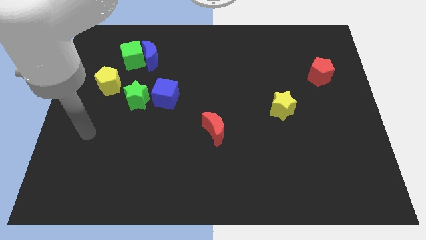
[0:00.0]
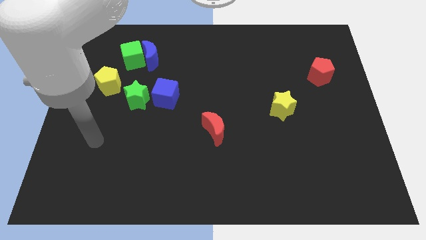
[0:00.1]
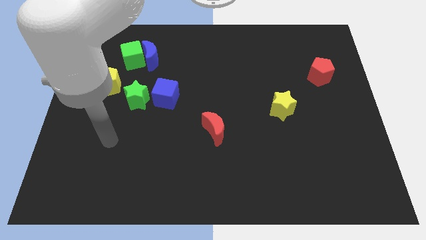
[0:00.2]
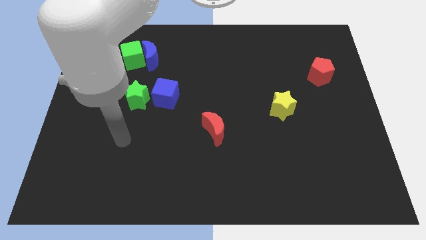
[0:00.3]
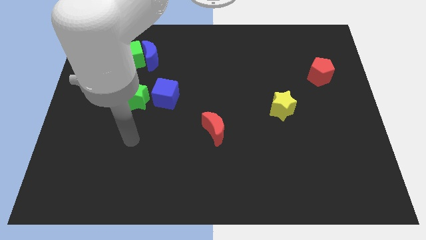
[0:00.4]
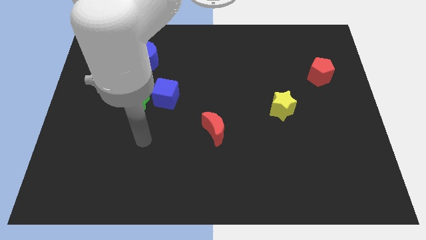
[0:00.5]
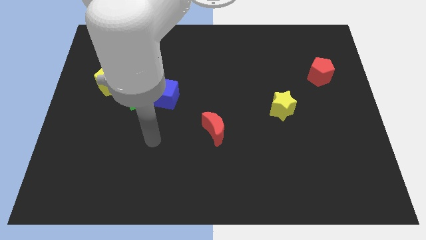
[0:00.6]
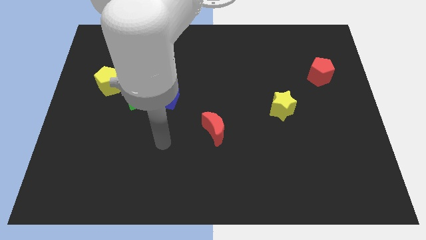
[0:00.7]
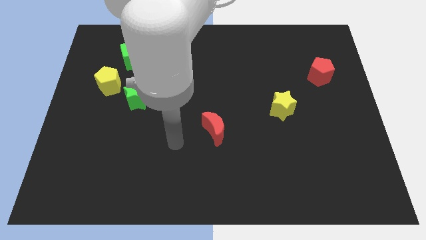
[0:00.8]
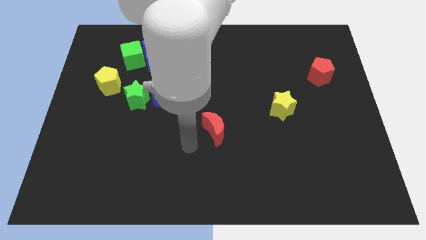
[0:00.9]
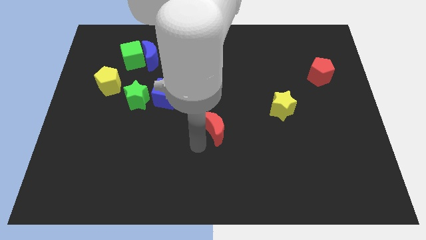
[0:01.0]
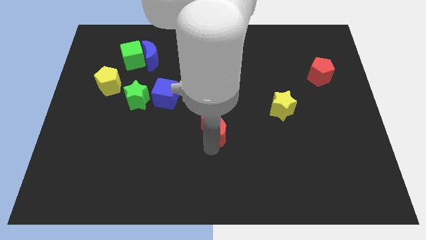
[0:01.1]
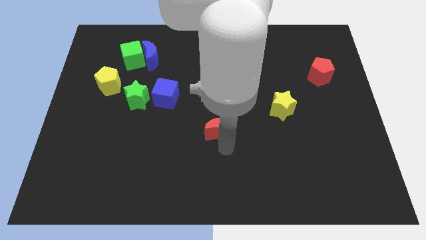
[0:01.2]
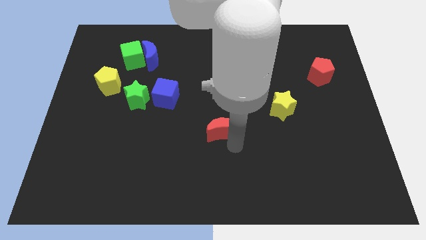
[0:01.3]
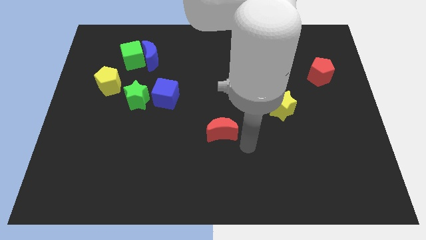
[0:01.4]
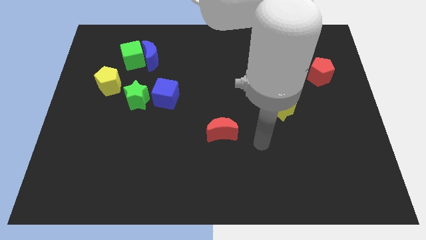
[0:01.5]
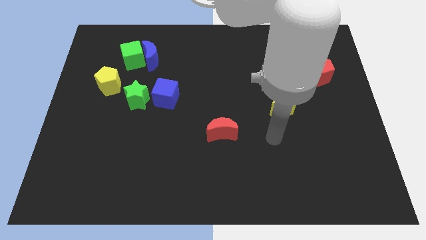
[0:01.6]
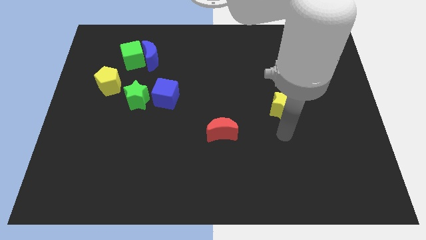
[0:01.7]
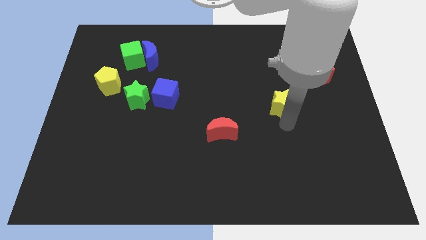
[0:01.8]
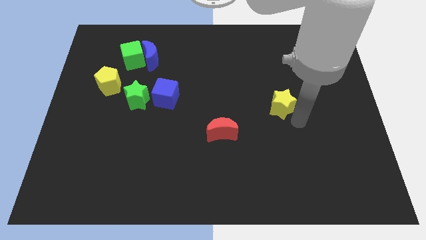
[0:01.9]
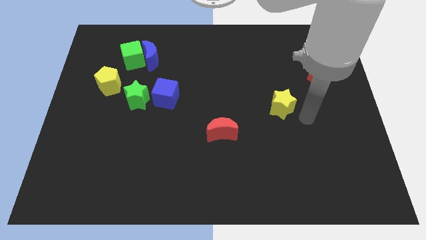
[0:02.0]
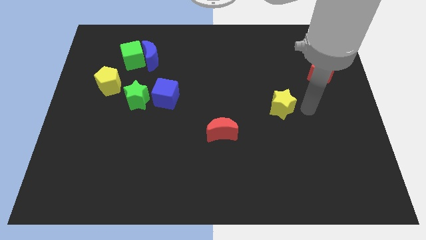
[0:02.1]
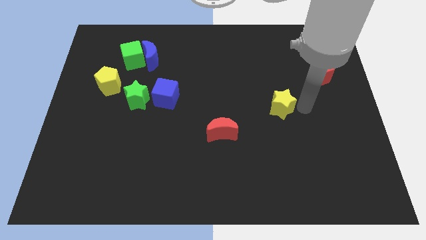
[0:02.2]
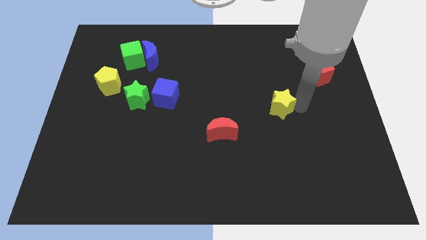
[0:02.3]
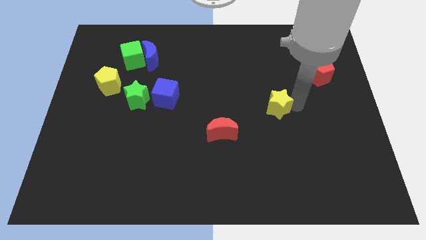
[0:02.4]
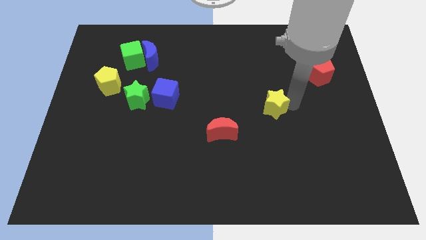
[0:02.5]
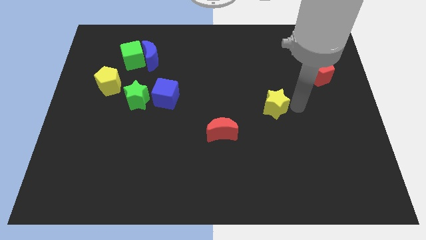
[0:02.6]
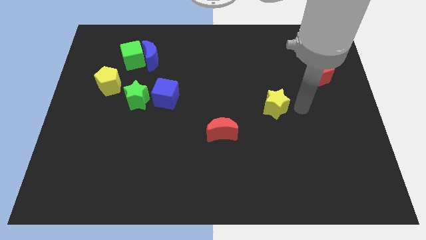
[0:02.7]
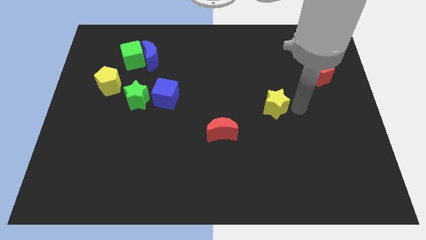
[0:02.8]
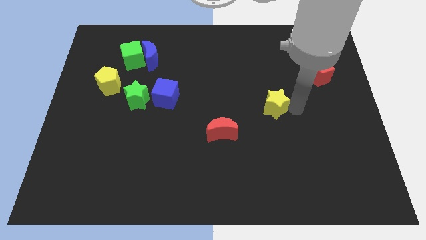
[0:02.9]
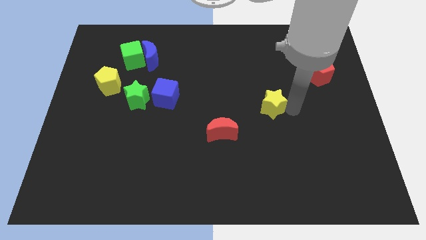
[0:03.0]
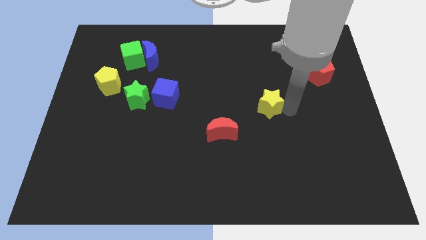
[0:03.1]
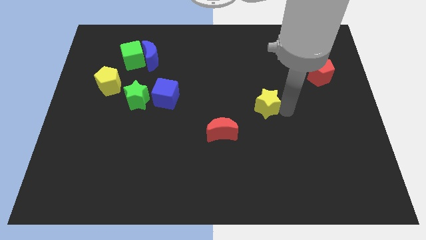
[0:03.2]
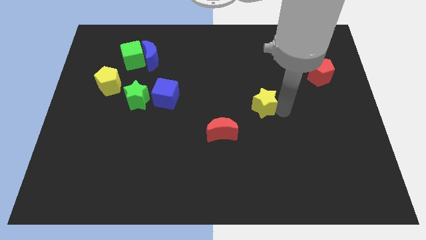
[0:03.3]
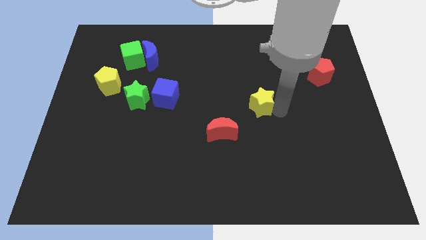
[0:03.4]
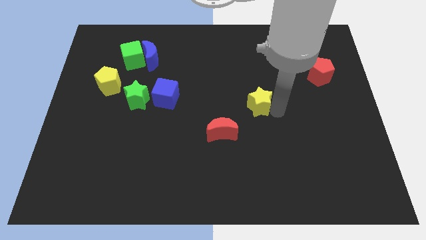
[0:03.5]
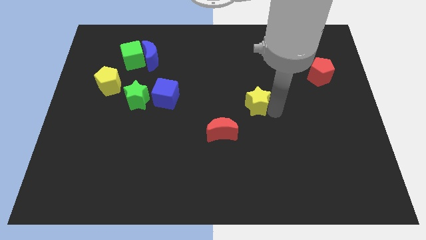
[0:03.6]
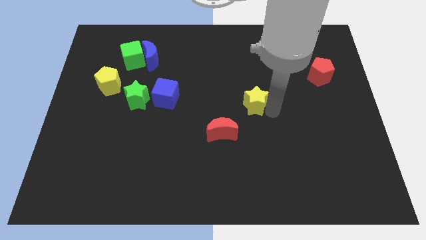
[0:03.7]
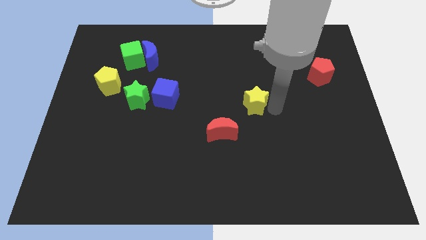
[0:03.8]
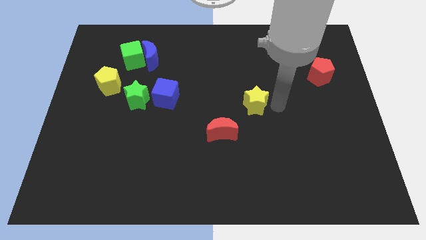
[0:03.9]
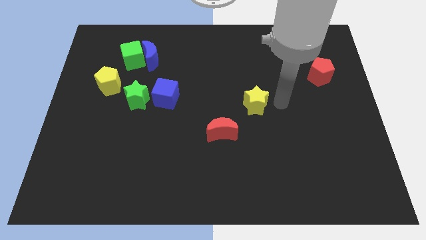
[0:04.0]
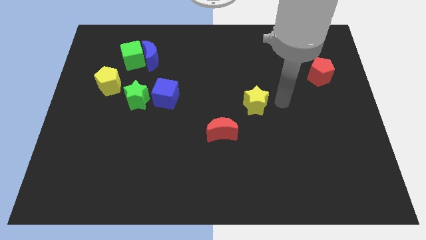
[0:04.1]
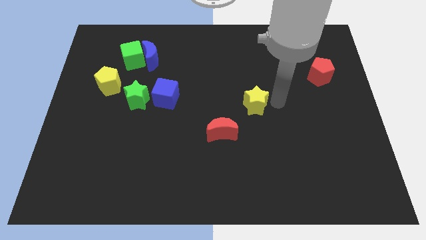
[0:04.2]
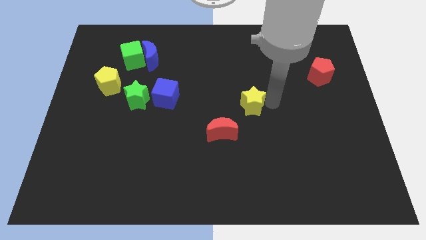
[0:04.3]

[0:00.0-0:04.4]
move the yellow star to the left a little bit

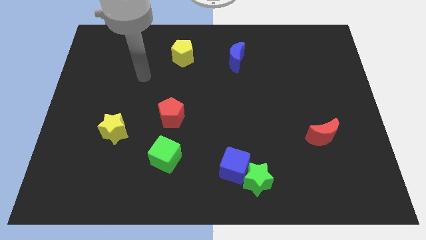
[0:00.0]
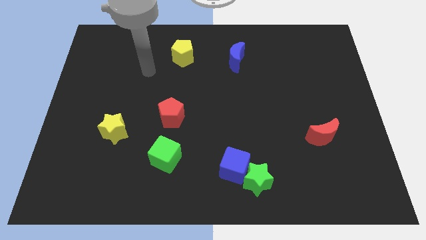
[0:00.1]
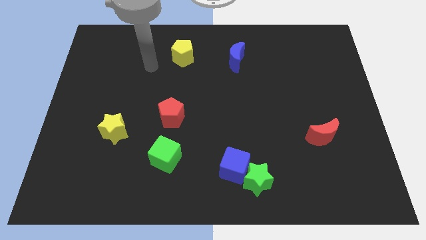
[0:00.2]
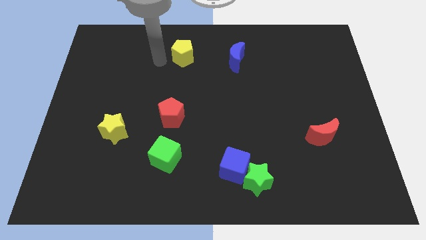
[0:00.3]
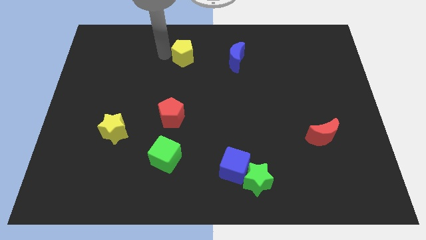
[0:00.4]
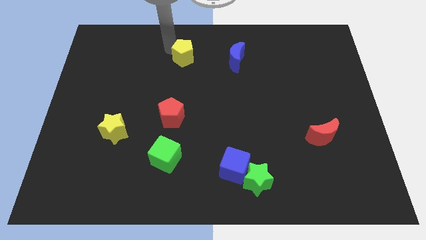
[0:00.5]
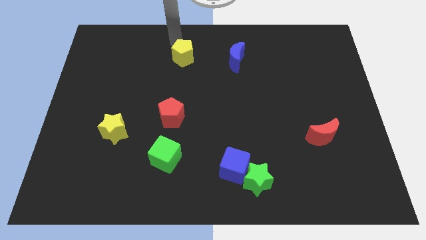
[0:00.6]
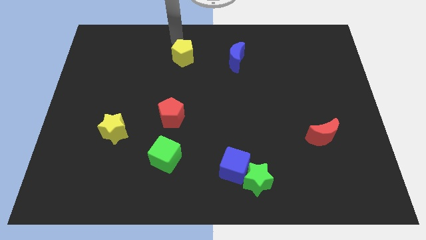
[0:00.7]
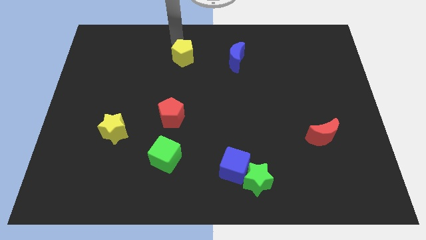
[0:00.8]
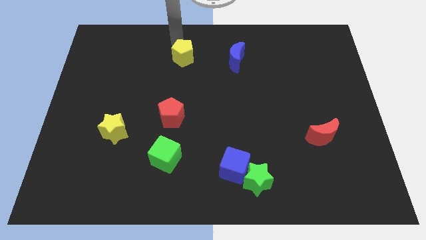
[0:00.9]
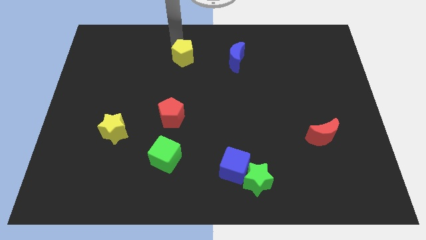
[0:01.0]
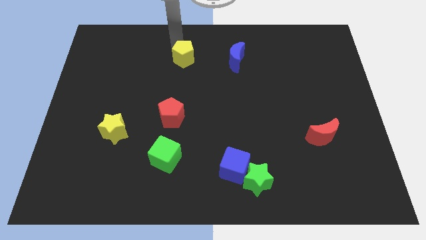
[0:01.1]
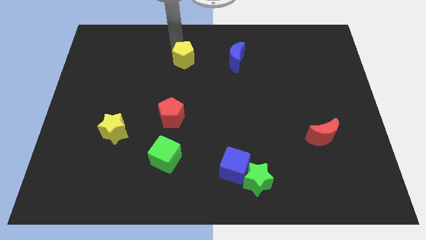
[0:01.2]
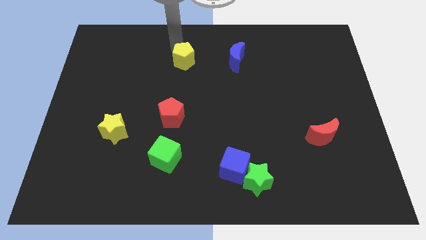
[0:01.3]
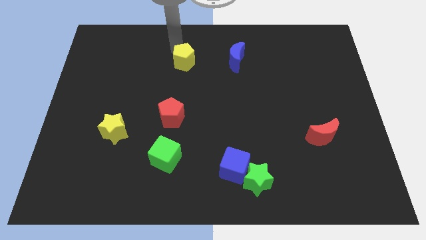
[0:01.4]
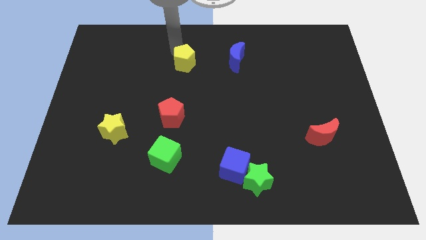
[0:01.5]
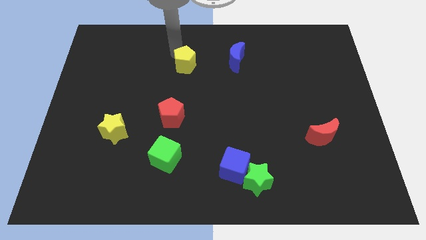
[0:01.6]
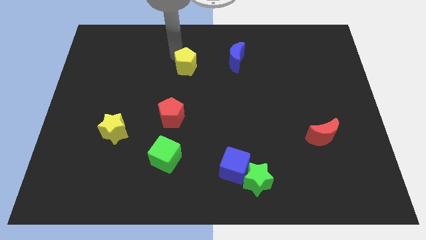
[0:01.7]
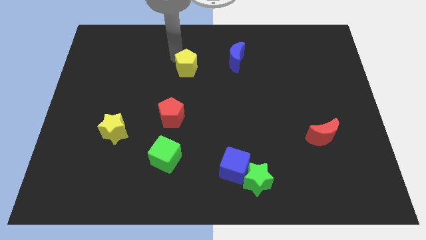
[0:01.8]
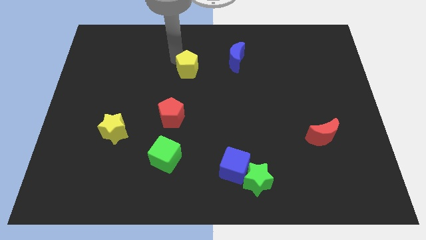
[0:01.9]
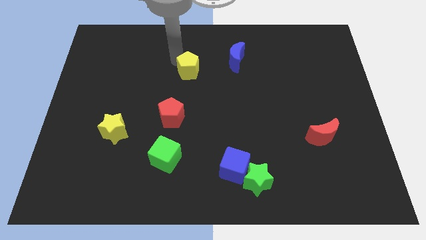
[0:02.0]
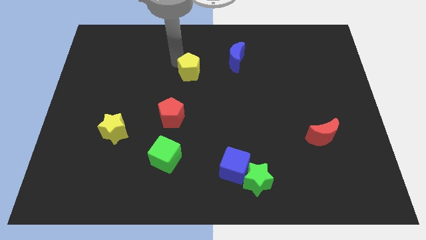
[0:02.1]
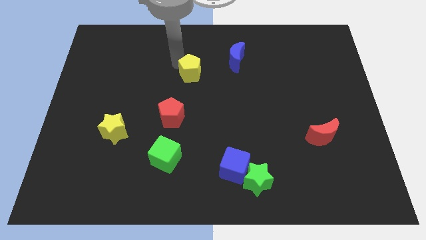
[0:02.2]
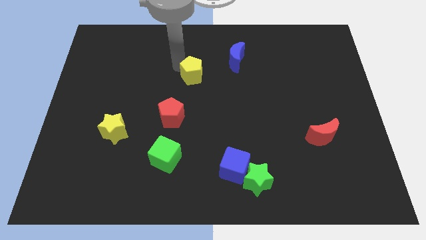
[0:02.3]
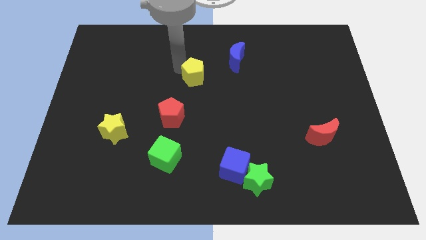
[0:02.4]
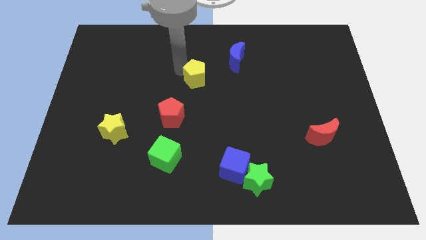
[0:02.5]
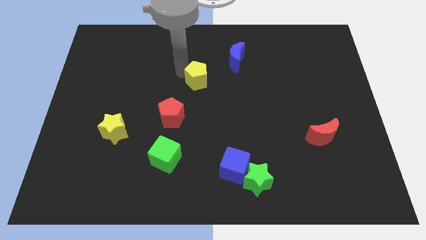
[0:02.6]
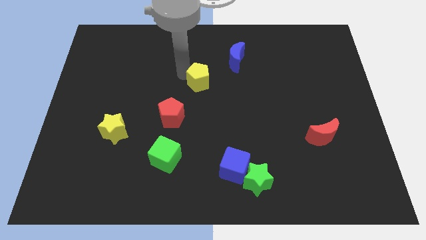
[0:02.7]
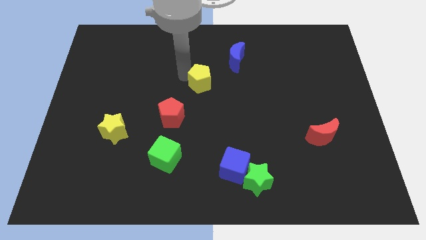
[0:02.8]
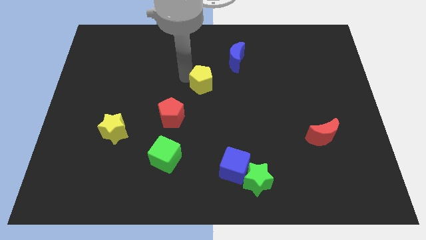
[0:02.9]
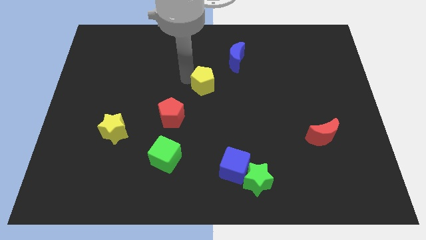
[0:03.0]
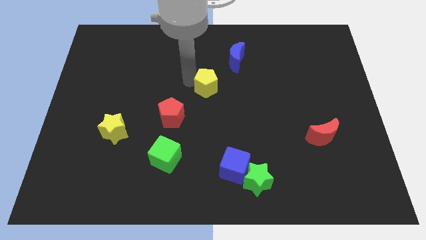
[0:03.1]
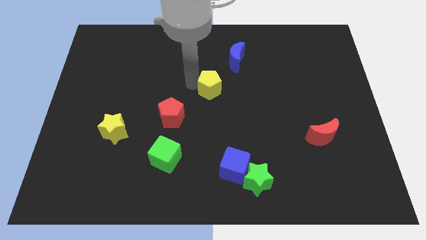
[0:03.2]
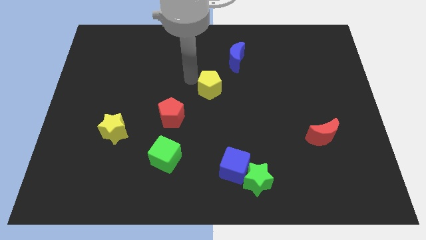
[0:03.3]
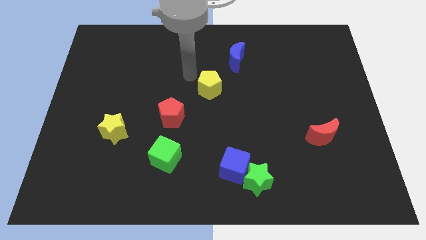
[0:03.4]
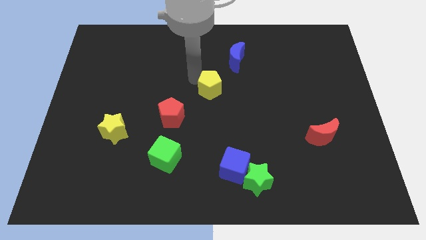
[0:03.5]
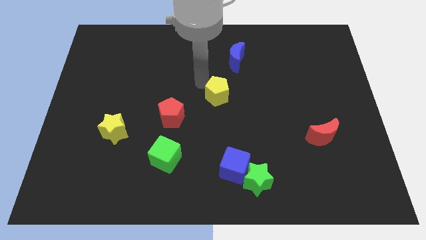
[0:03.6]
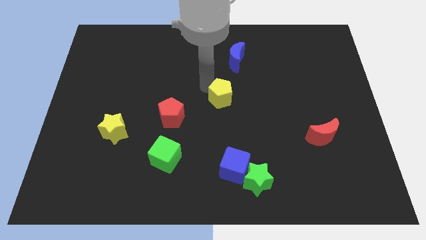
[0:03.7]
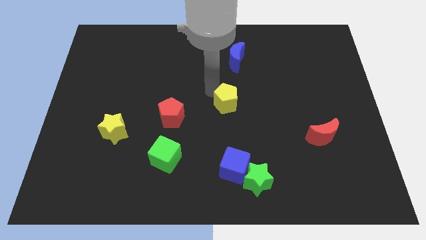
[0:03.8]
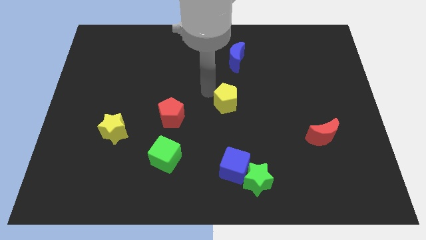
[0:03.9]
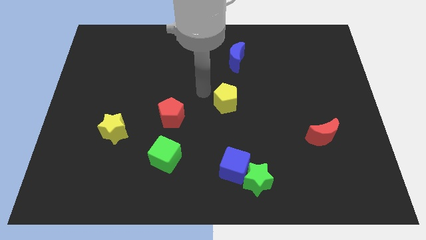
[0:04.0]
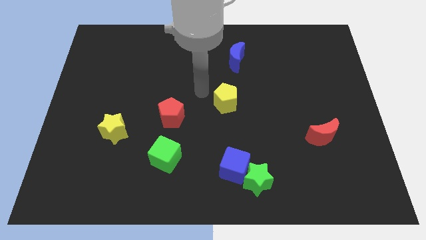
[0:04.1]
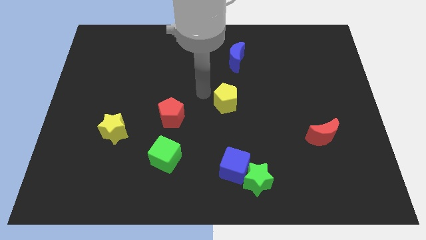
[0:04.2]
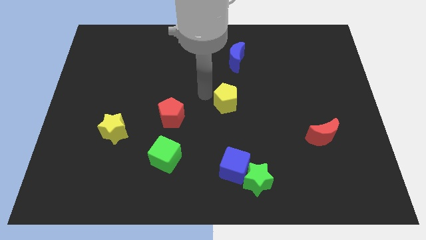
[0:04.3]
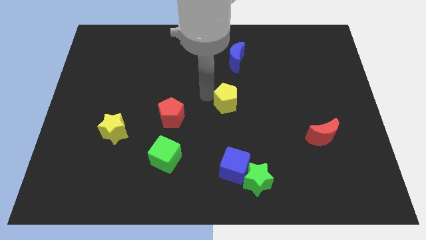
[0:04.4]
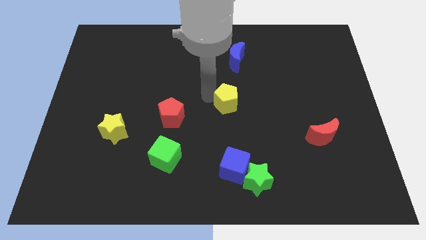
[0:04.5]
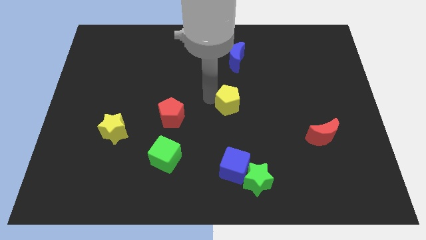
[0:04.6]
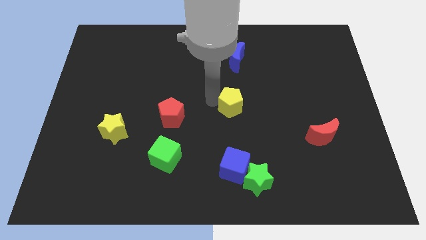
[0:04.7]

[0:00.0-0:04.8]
push the yellow pentagon down and to the right diagonally
